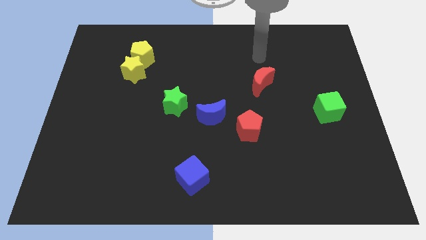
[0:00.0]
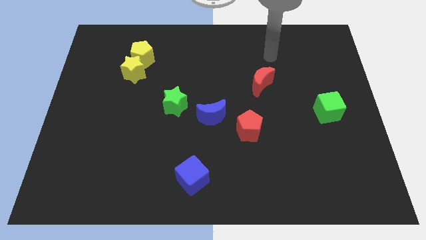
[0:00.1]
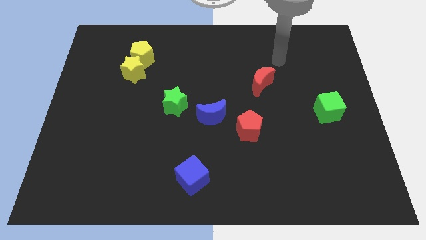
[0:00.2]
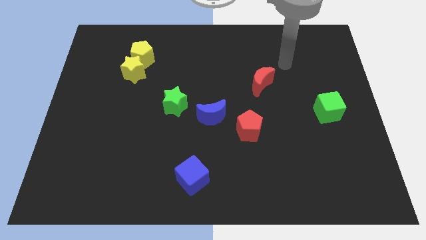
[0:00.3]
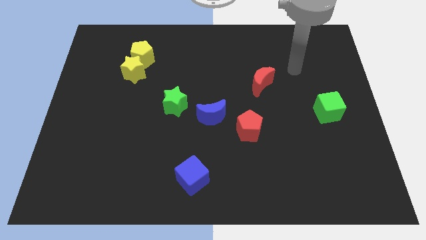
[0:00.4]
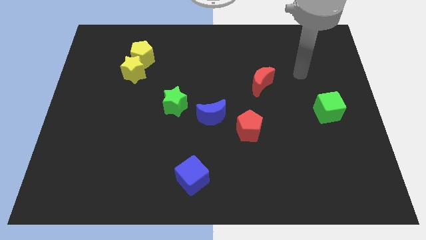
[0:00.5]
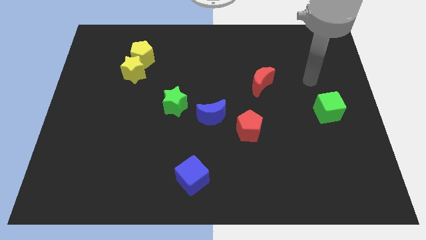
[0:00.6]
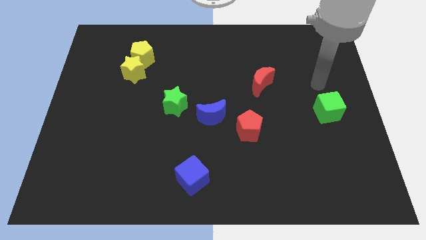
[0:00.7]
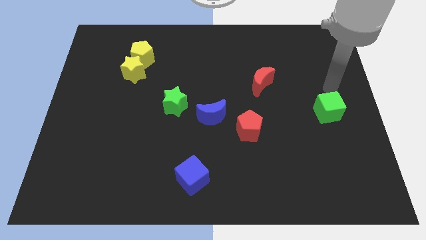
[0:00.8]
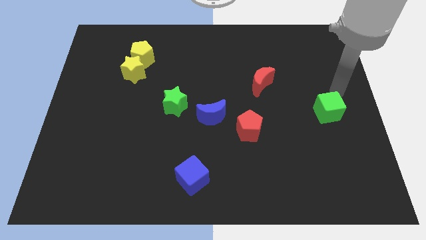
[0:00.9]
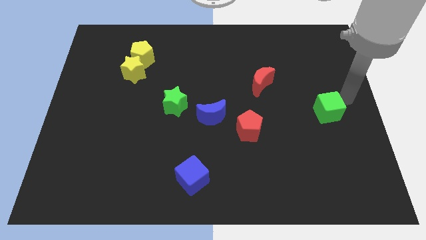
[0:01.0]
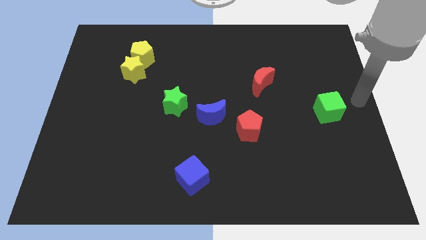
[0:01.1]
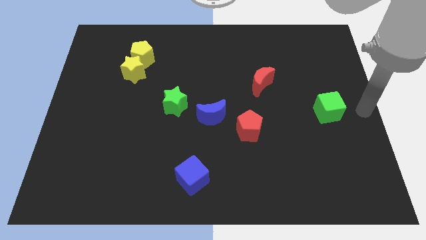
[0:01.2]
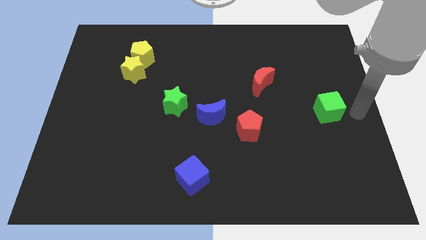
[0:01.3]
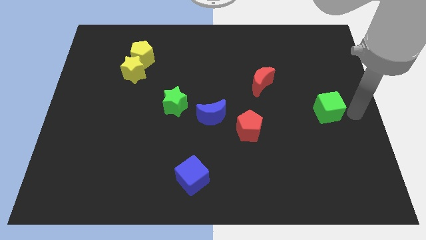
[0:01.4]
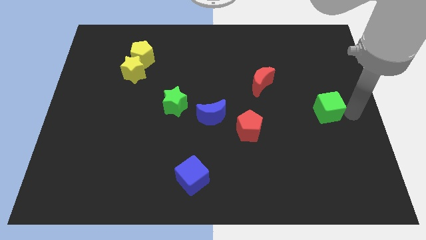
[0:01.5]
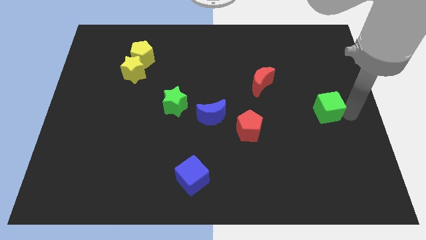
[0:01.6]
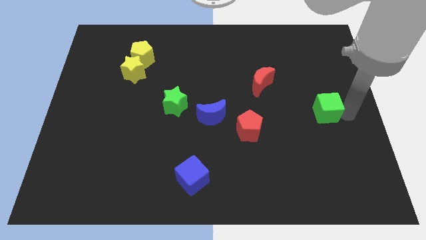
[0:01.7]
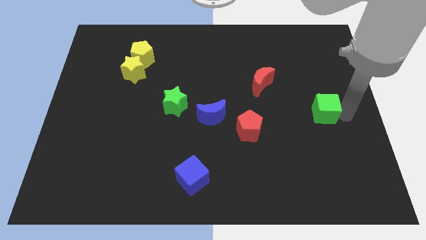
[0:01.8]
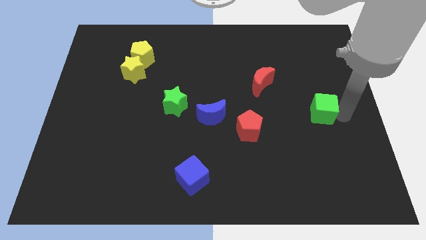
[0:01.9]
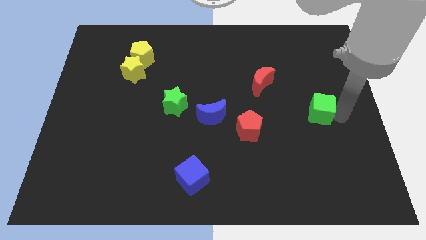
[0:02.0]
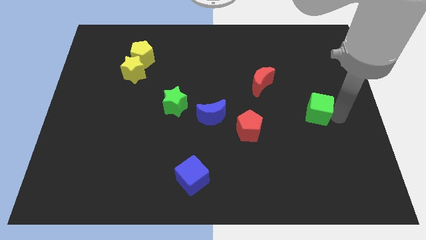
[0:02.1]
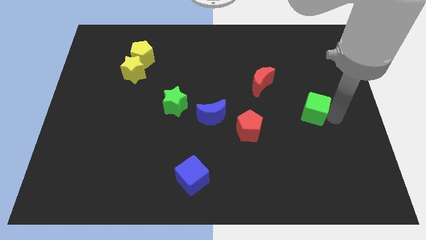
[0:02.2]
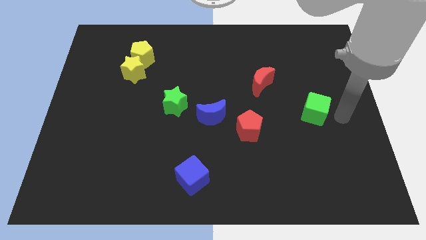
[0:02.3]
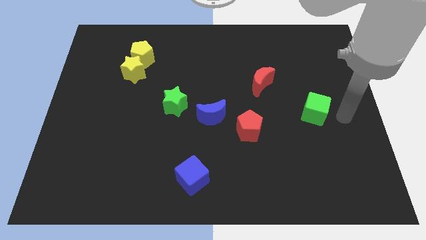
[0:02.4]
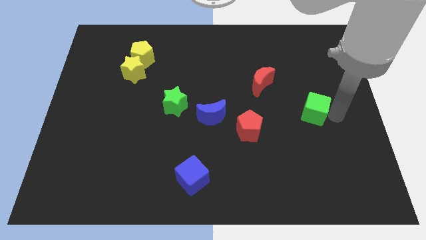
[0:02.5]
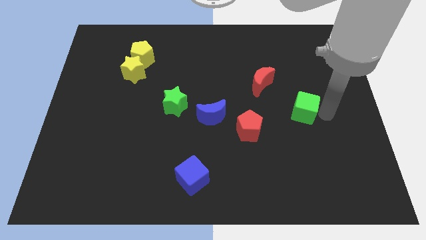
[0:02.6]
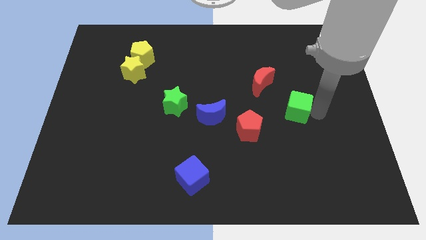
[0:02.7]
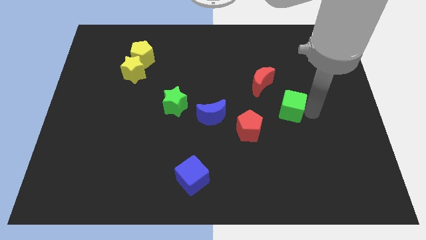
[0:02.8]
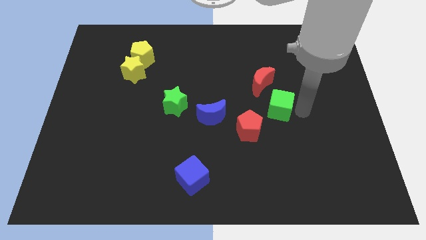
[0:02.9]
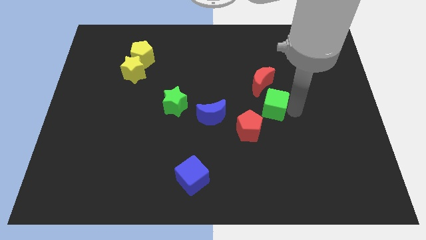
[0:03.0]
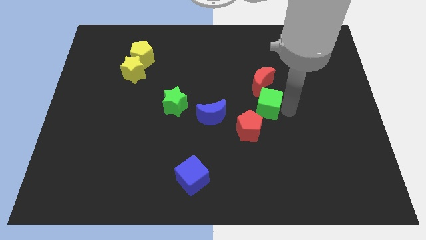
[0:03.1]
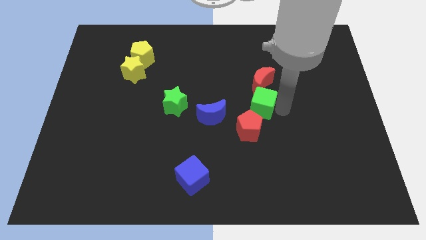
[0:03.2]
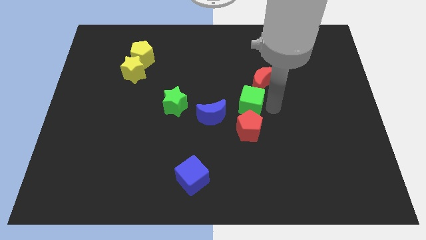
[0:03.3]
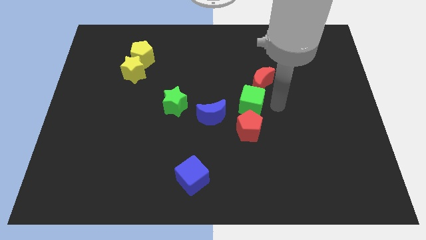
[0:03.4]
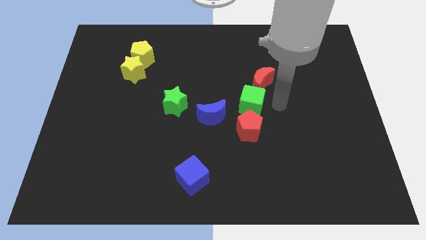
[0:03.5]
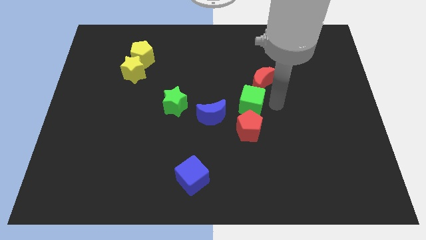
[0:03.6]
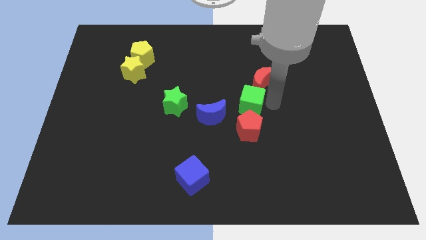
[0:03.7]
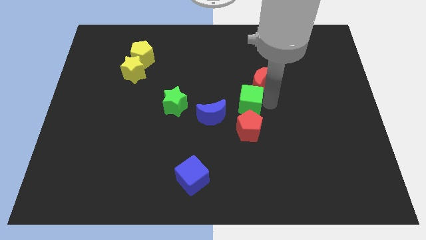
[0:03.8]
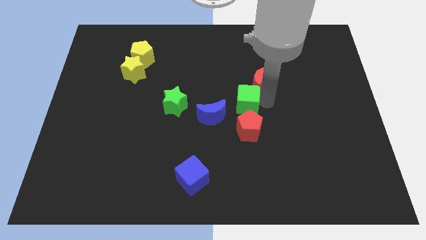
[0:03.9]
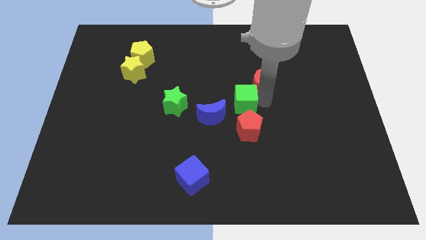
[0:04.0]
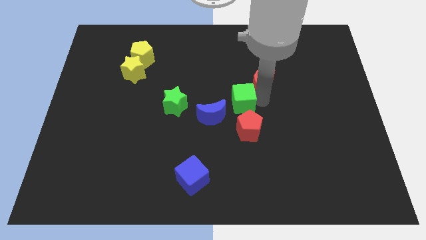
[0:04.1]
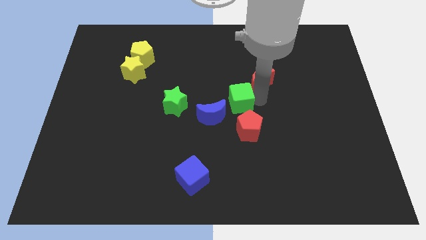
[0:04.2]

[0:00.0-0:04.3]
move the green cube to the left

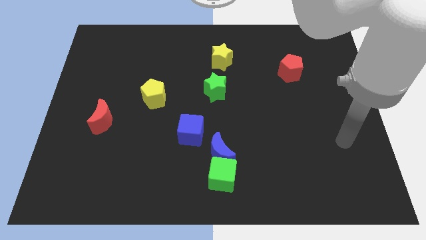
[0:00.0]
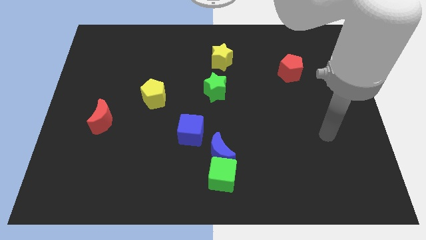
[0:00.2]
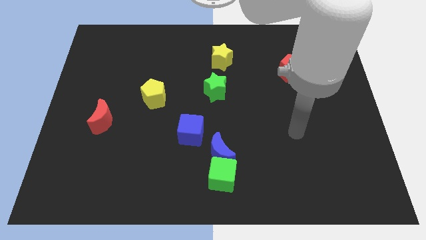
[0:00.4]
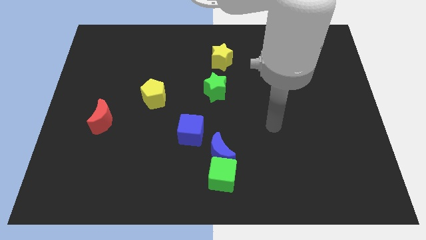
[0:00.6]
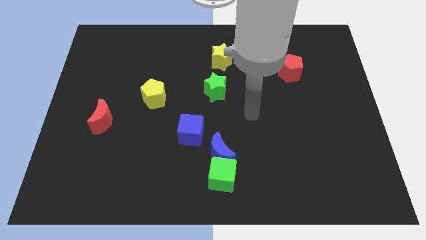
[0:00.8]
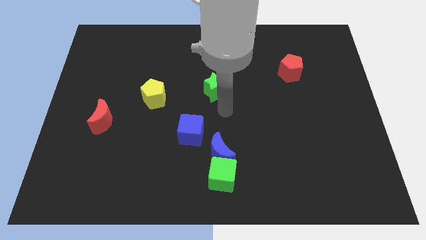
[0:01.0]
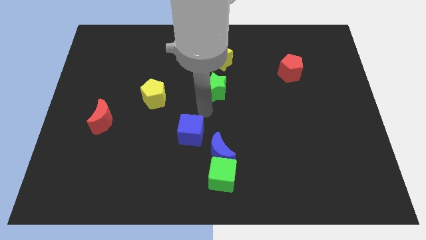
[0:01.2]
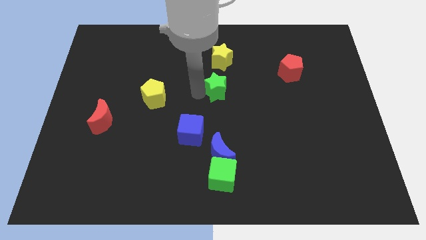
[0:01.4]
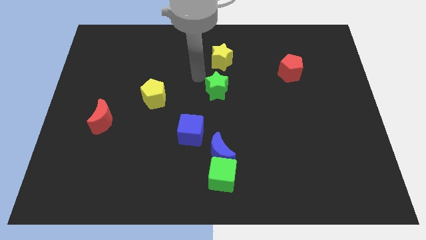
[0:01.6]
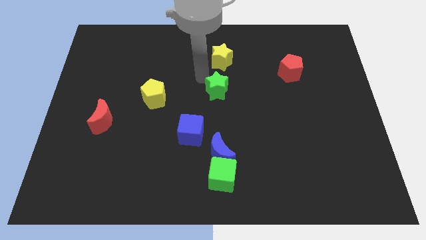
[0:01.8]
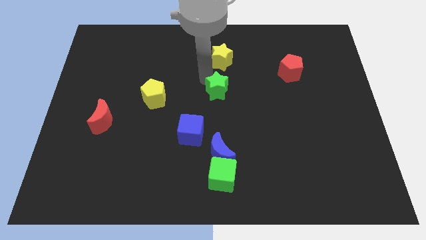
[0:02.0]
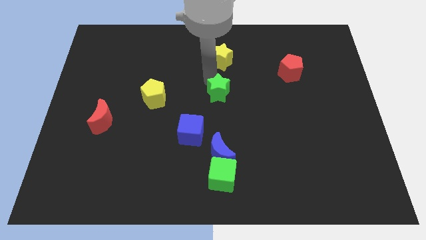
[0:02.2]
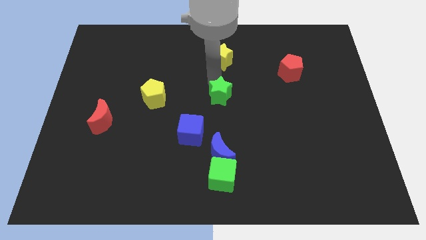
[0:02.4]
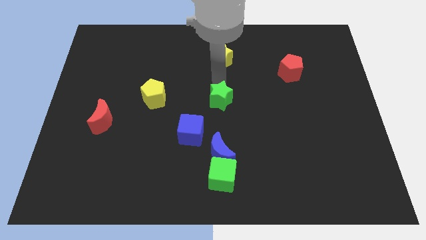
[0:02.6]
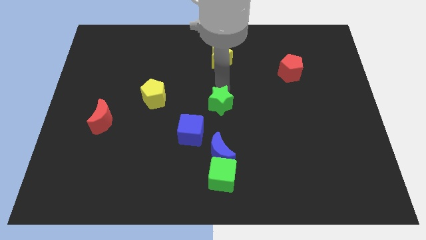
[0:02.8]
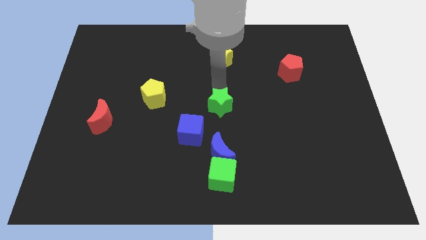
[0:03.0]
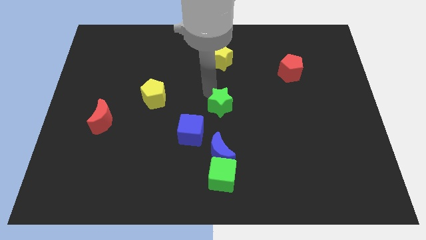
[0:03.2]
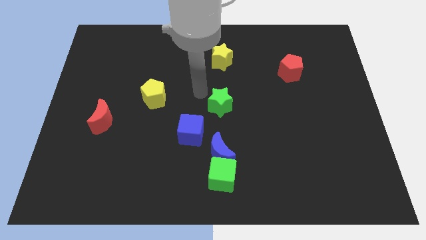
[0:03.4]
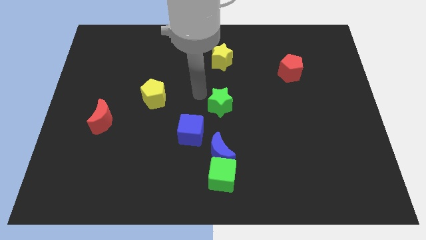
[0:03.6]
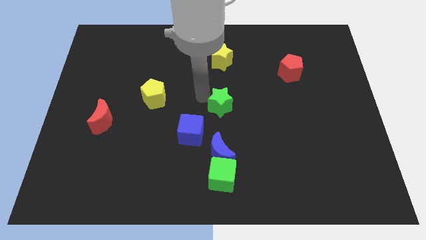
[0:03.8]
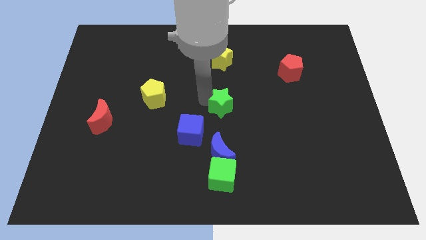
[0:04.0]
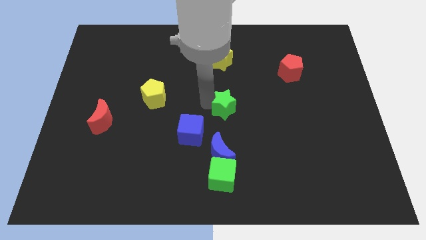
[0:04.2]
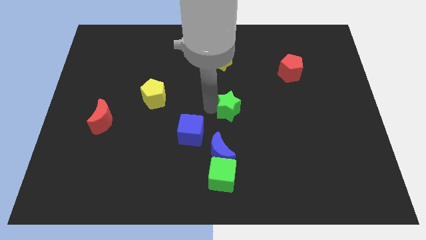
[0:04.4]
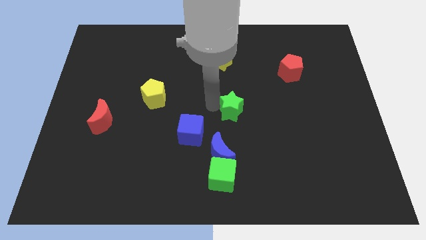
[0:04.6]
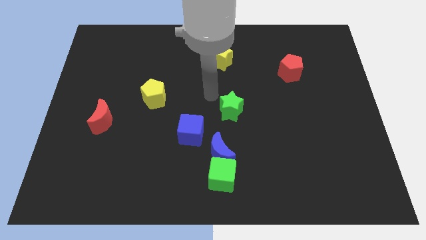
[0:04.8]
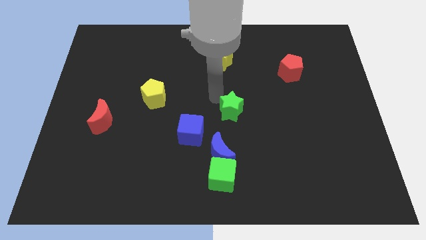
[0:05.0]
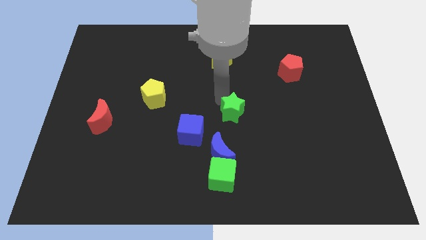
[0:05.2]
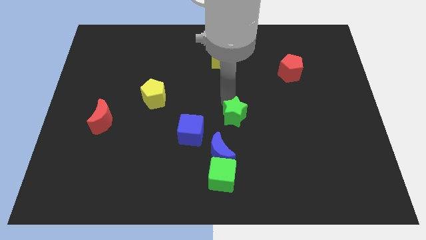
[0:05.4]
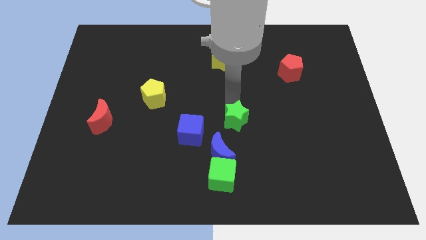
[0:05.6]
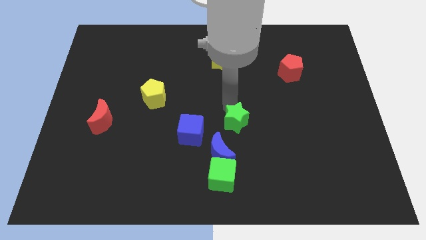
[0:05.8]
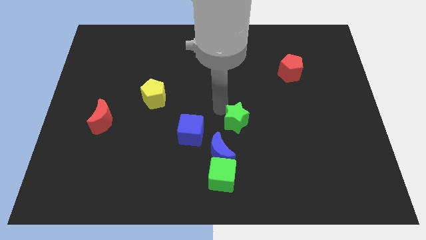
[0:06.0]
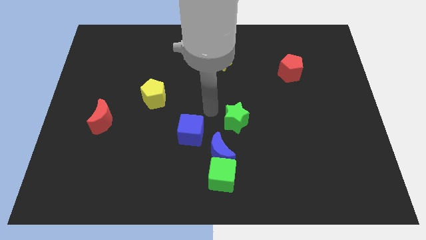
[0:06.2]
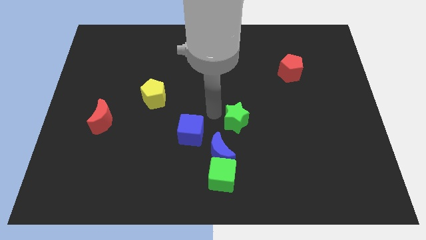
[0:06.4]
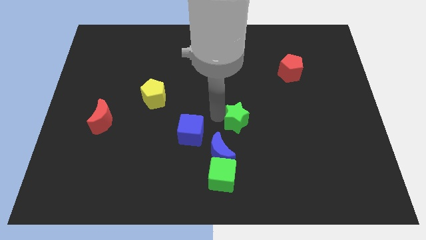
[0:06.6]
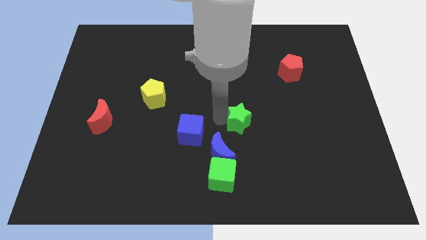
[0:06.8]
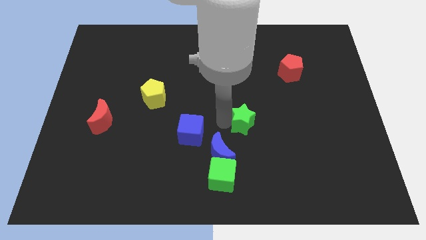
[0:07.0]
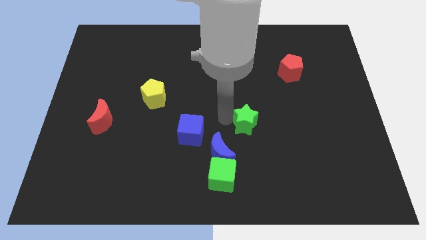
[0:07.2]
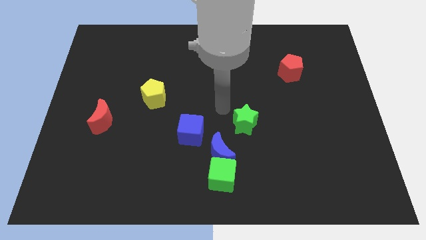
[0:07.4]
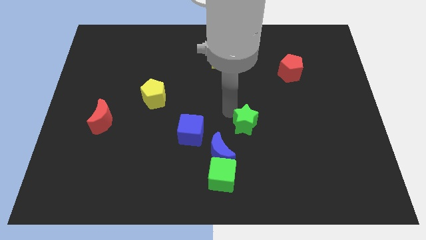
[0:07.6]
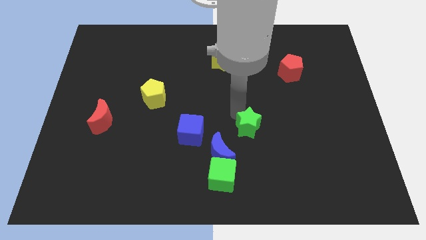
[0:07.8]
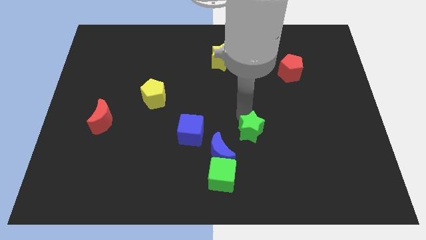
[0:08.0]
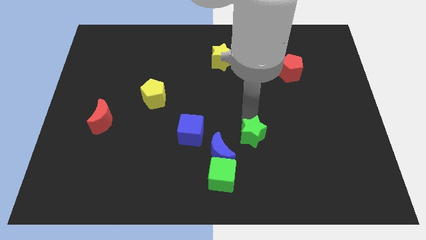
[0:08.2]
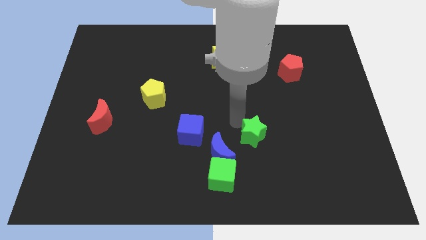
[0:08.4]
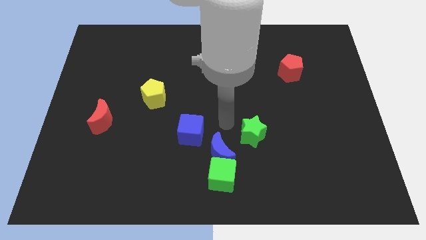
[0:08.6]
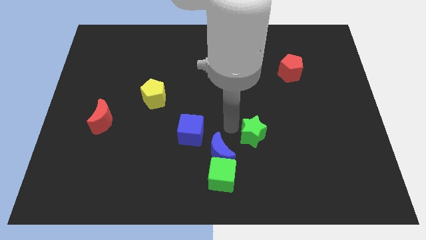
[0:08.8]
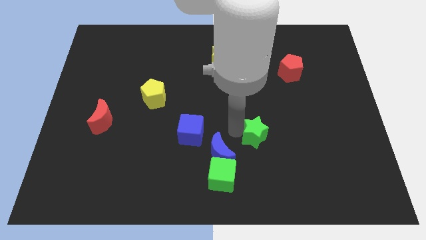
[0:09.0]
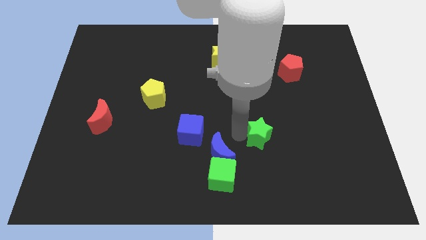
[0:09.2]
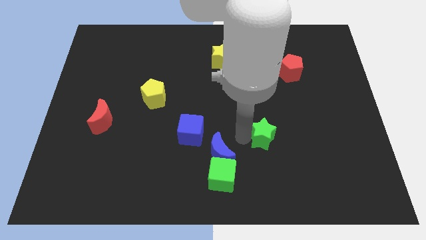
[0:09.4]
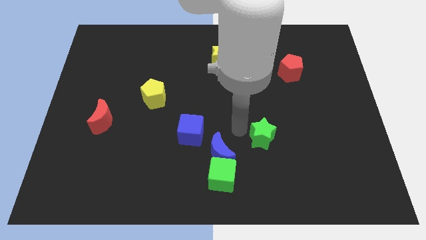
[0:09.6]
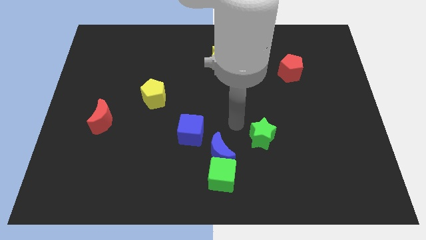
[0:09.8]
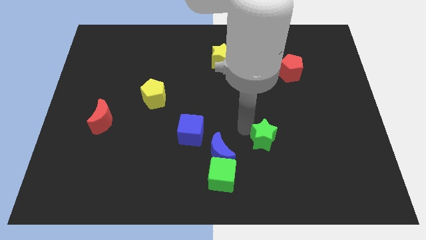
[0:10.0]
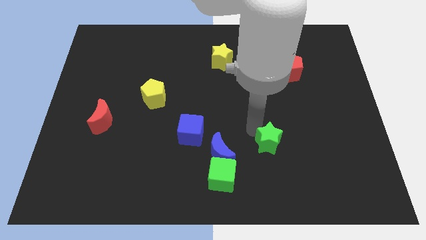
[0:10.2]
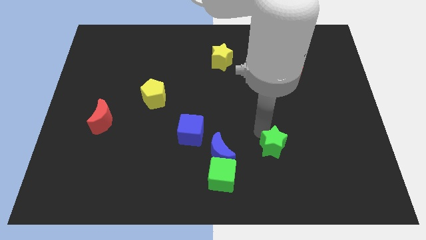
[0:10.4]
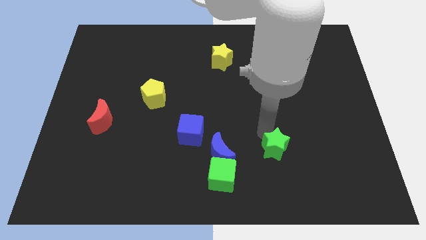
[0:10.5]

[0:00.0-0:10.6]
move the green star down and then to the right
